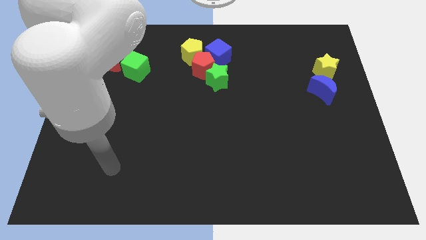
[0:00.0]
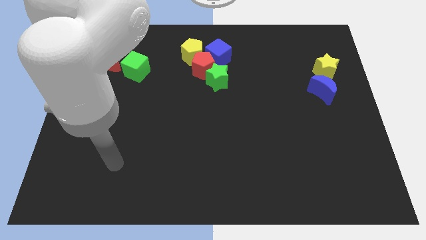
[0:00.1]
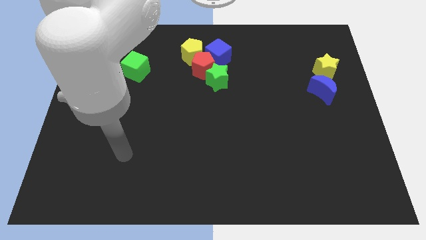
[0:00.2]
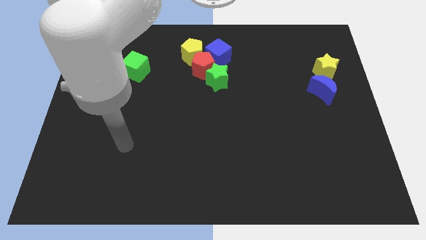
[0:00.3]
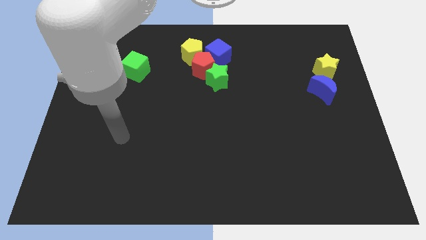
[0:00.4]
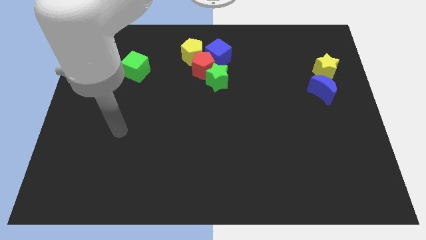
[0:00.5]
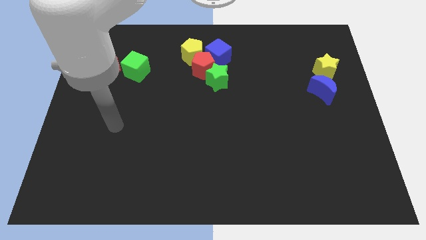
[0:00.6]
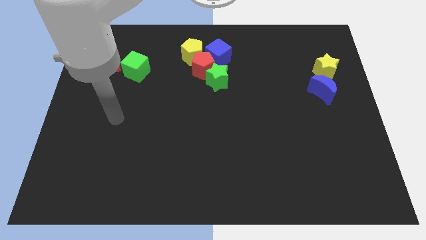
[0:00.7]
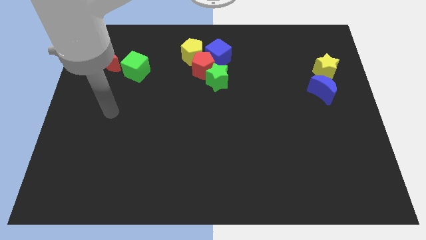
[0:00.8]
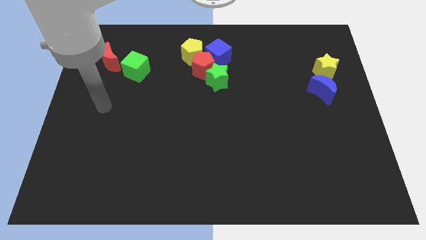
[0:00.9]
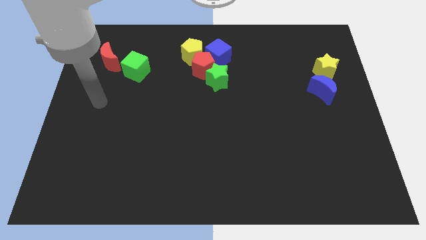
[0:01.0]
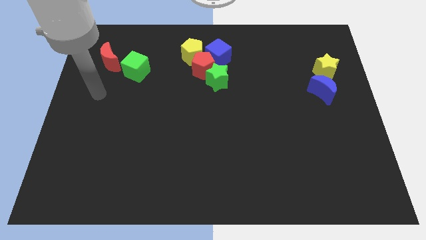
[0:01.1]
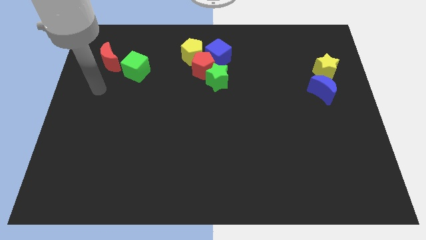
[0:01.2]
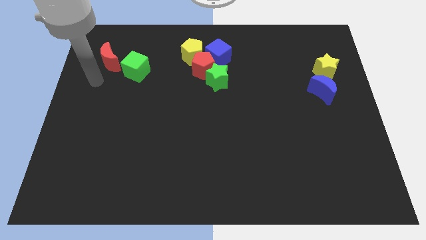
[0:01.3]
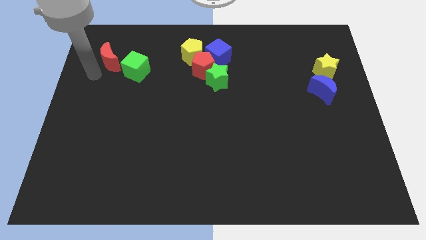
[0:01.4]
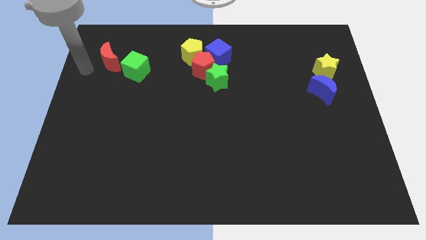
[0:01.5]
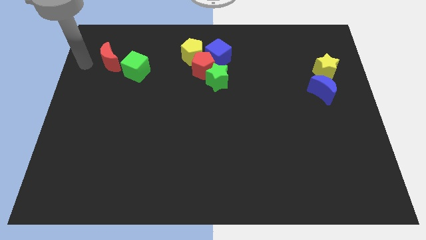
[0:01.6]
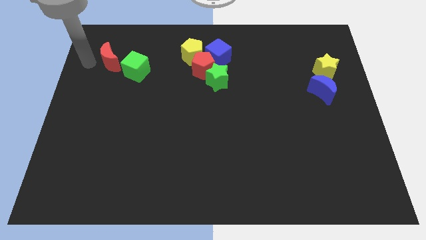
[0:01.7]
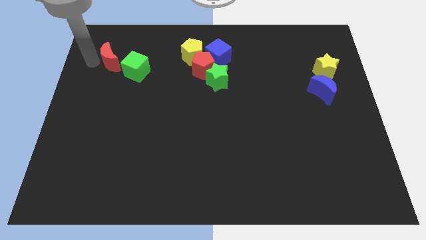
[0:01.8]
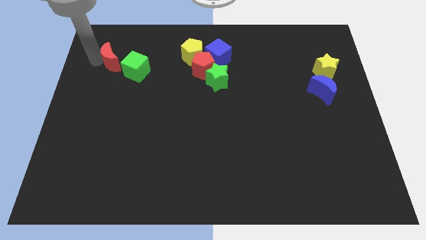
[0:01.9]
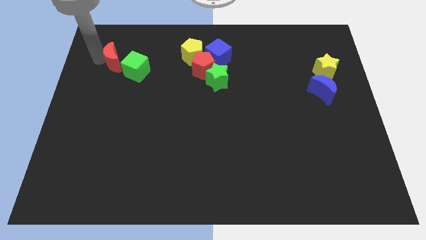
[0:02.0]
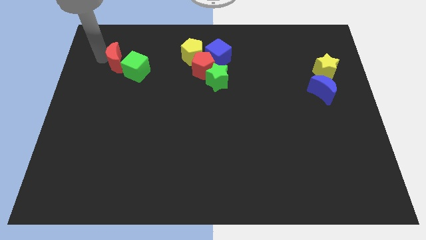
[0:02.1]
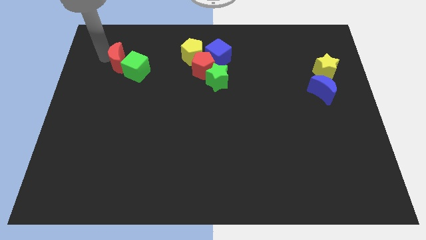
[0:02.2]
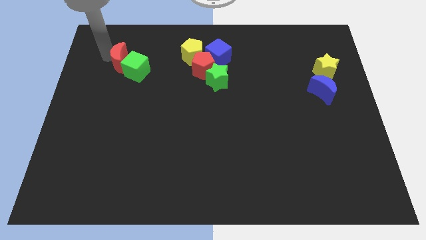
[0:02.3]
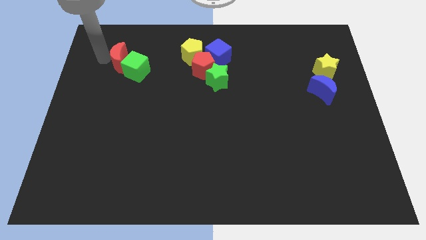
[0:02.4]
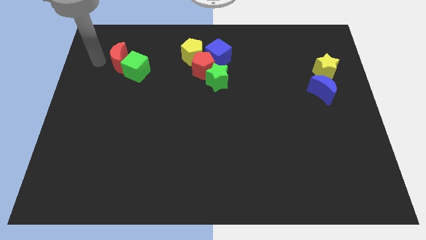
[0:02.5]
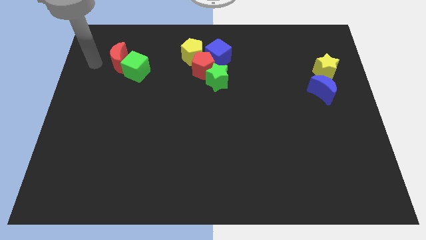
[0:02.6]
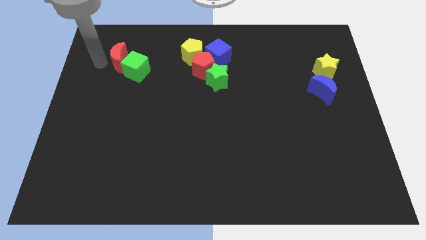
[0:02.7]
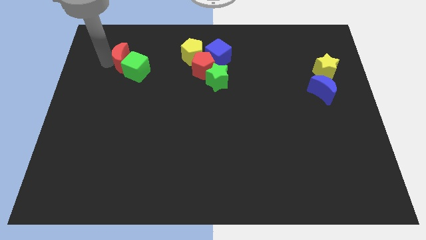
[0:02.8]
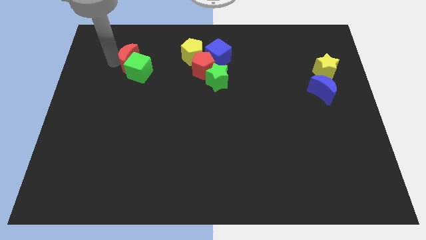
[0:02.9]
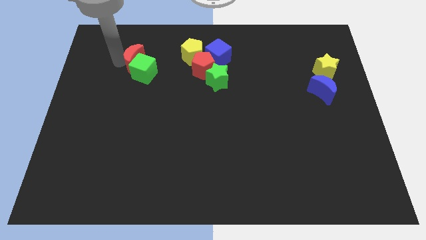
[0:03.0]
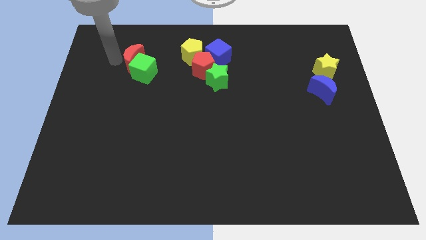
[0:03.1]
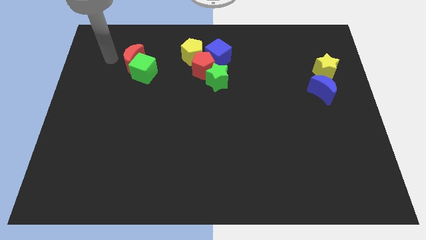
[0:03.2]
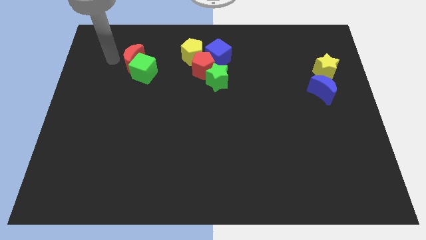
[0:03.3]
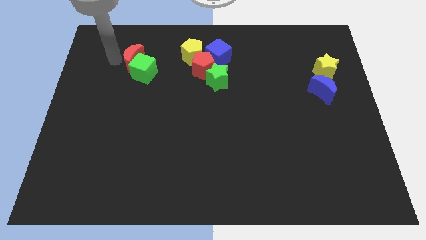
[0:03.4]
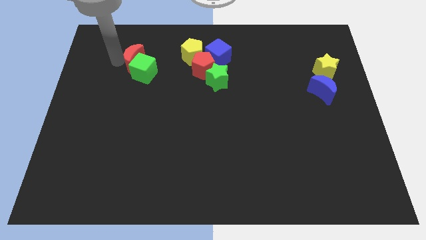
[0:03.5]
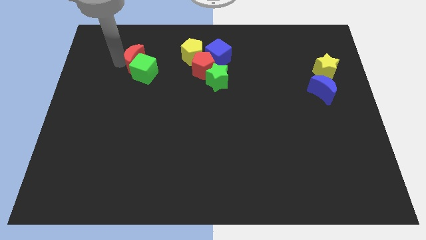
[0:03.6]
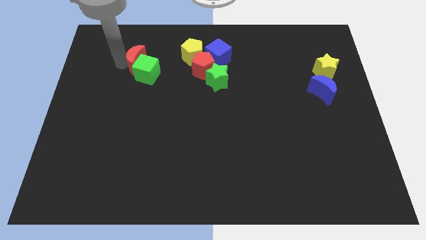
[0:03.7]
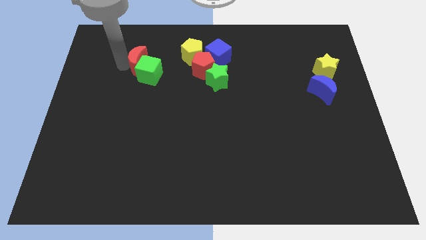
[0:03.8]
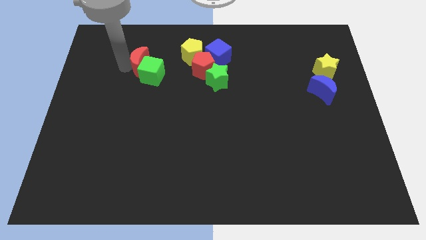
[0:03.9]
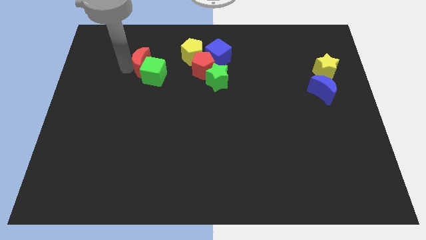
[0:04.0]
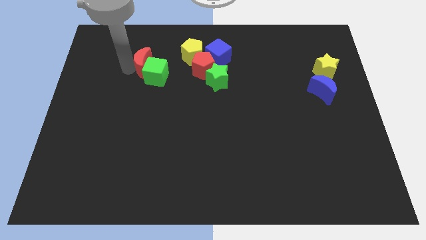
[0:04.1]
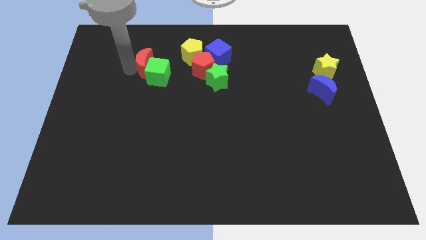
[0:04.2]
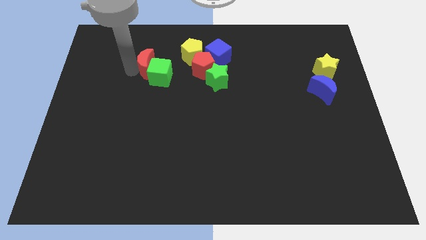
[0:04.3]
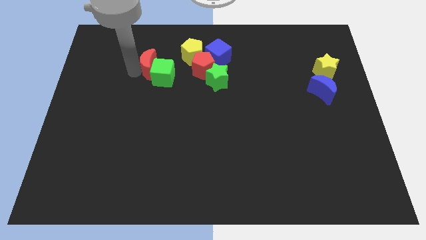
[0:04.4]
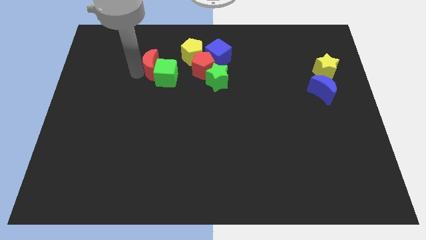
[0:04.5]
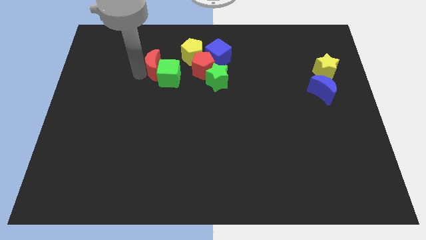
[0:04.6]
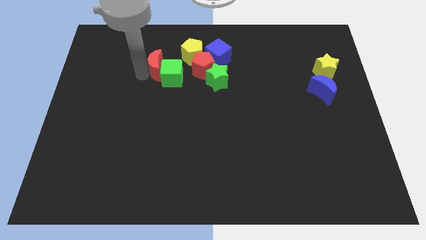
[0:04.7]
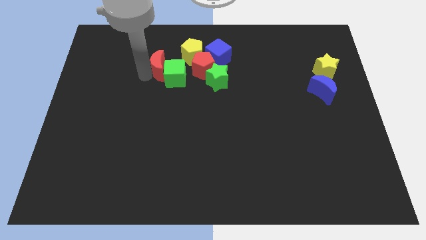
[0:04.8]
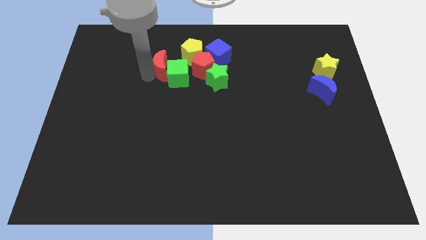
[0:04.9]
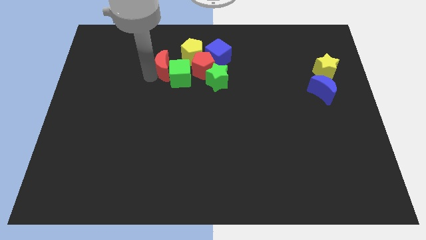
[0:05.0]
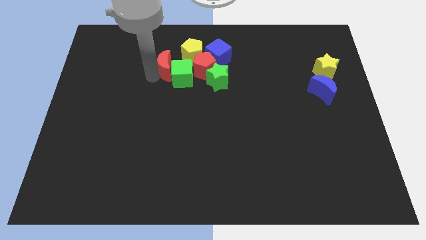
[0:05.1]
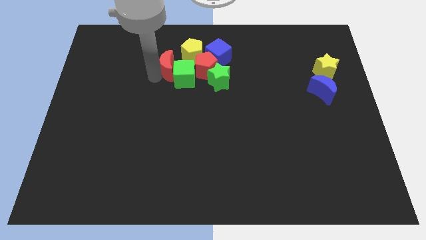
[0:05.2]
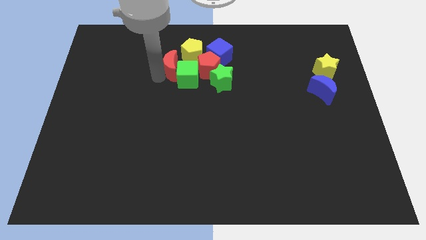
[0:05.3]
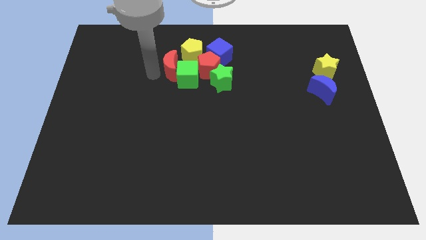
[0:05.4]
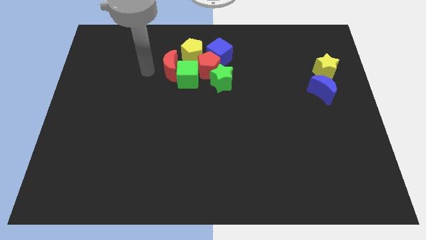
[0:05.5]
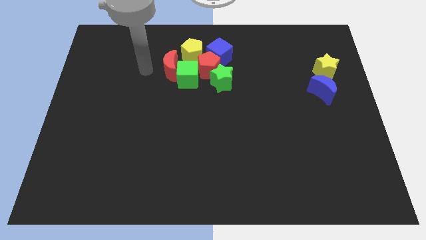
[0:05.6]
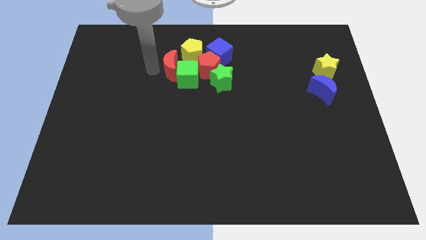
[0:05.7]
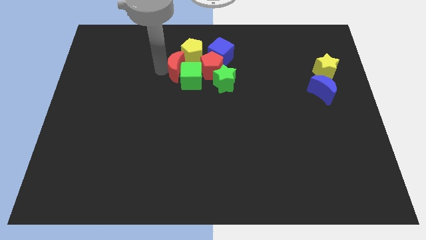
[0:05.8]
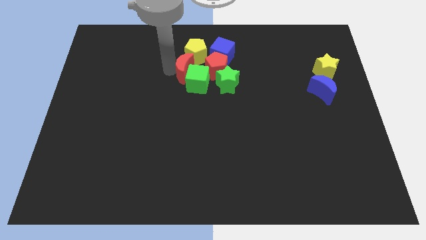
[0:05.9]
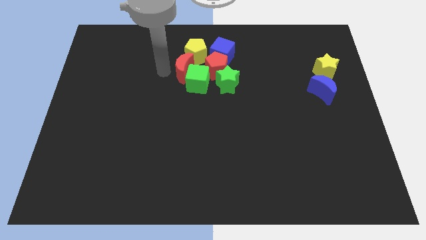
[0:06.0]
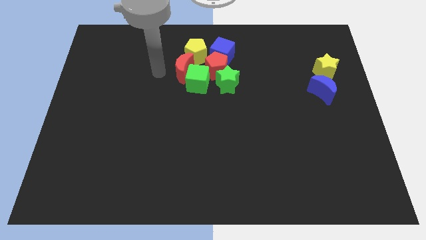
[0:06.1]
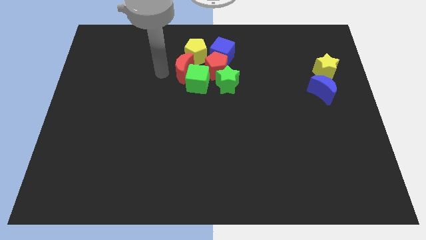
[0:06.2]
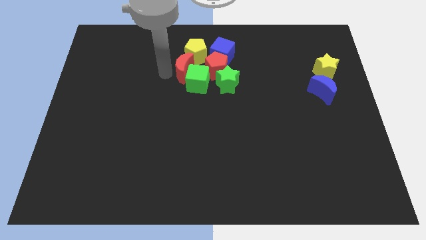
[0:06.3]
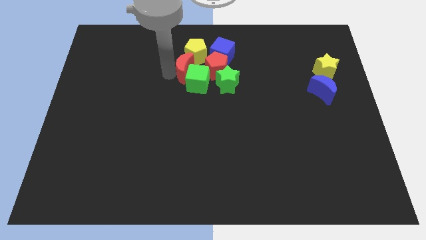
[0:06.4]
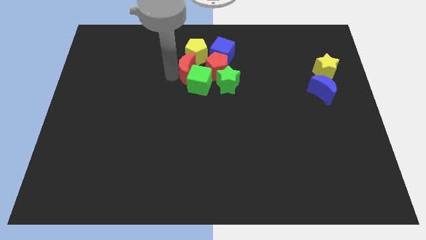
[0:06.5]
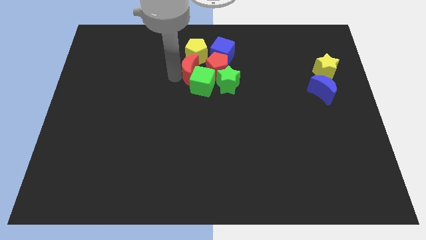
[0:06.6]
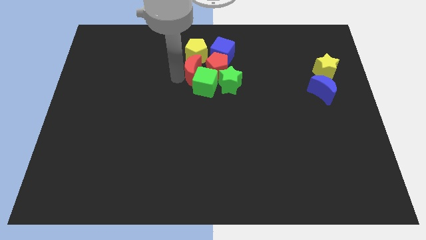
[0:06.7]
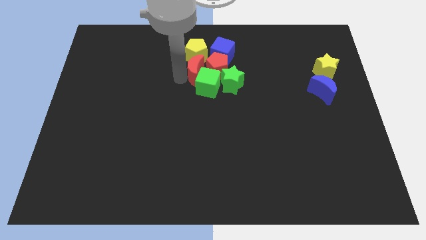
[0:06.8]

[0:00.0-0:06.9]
put the red moon to the red pentagon
